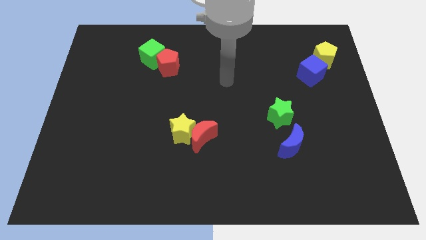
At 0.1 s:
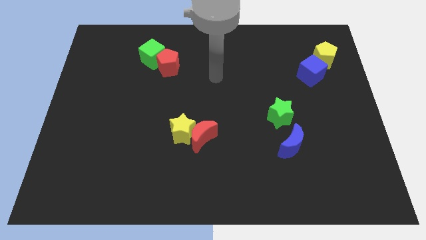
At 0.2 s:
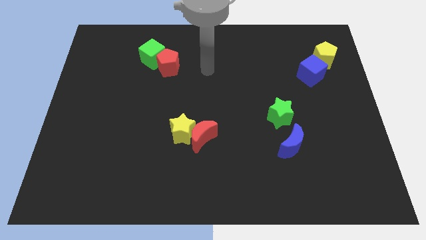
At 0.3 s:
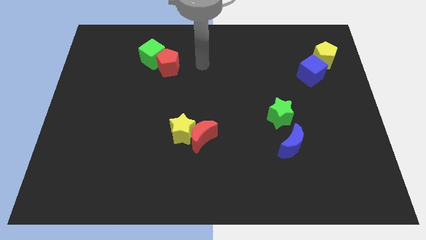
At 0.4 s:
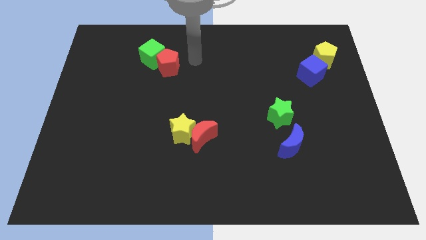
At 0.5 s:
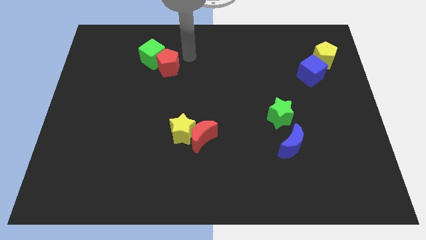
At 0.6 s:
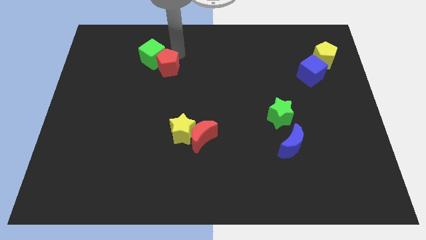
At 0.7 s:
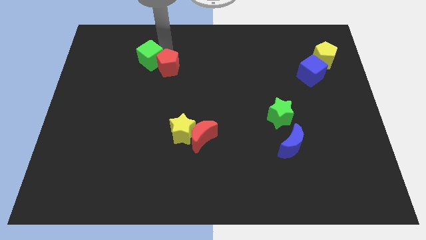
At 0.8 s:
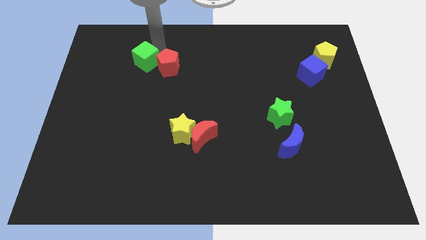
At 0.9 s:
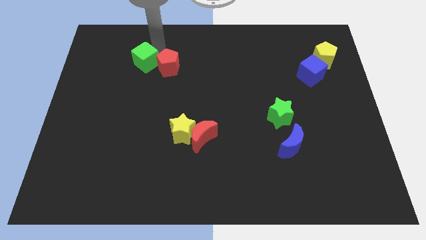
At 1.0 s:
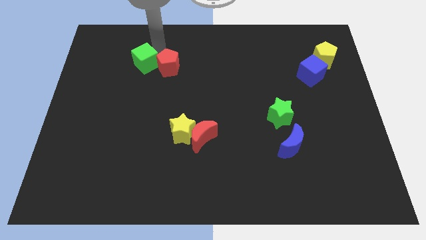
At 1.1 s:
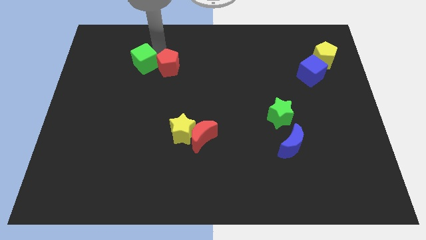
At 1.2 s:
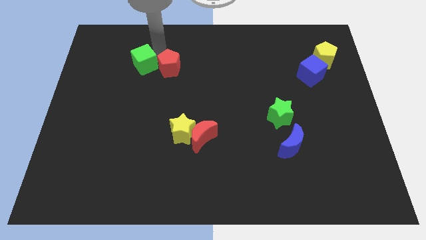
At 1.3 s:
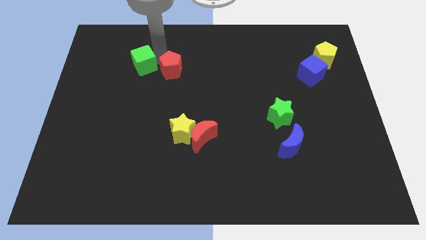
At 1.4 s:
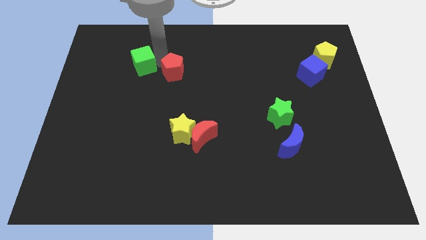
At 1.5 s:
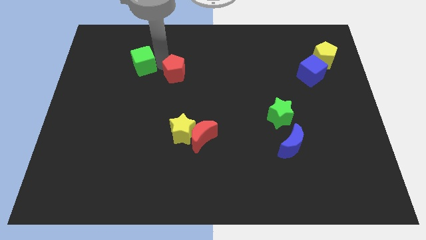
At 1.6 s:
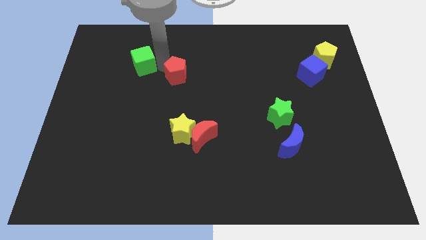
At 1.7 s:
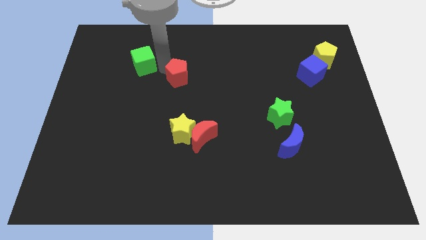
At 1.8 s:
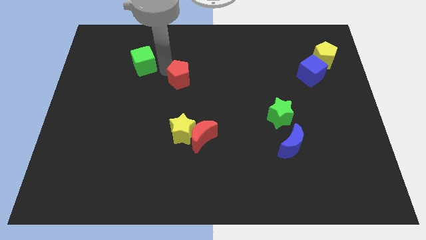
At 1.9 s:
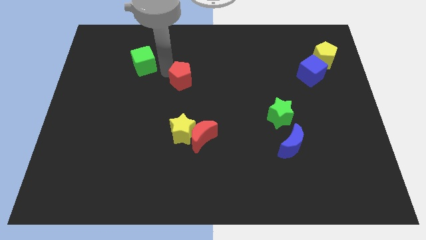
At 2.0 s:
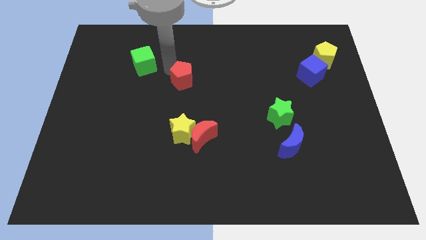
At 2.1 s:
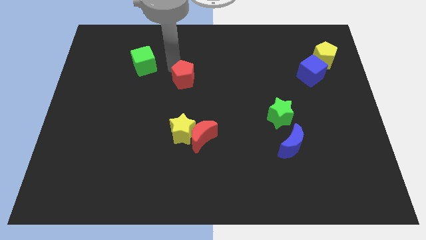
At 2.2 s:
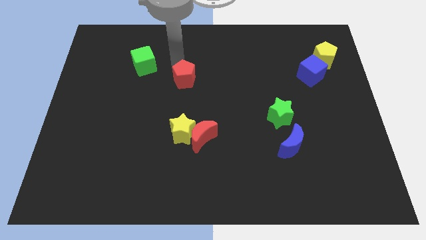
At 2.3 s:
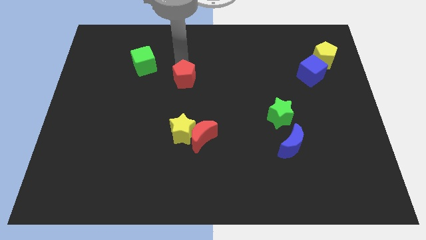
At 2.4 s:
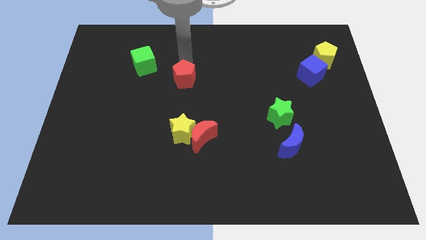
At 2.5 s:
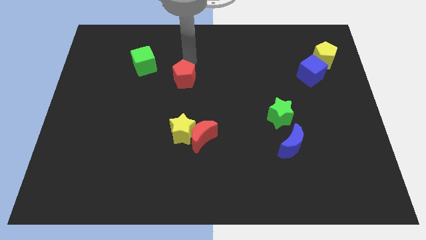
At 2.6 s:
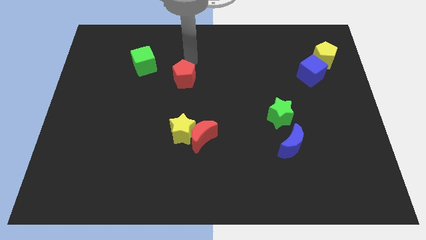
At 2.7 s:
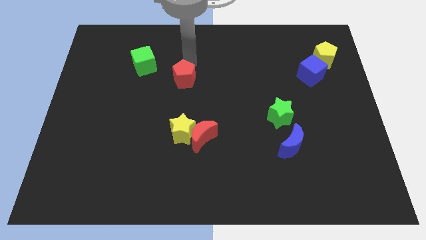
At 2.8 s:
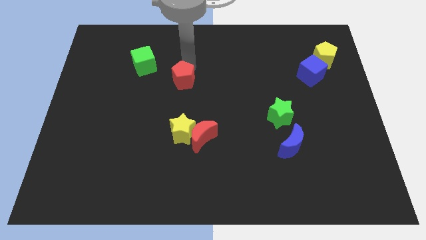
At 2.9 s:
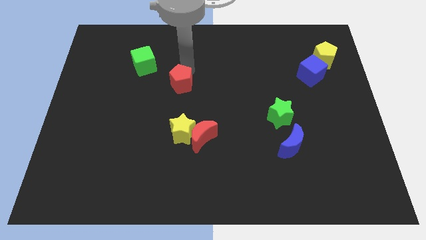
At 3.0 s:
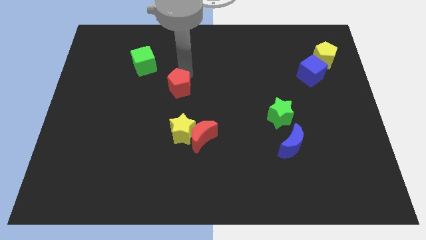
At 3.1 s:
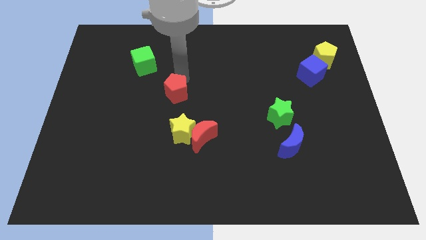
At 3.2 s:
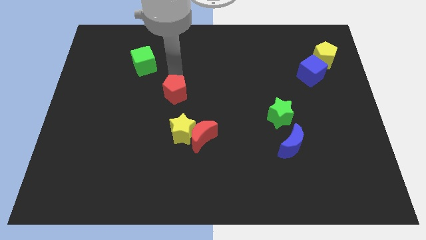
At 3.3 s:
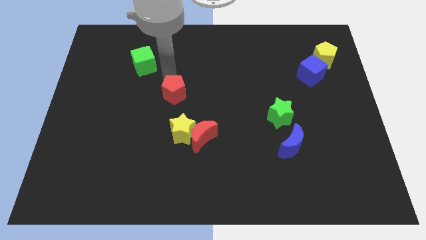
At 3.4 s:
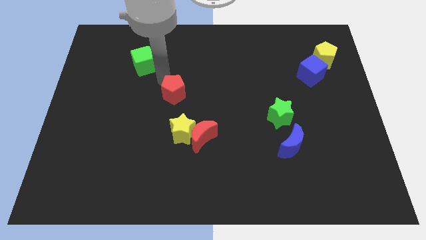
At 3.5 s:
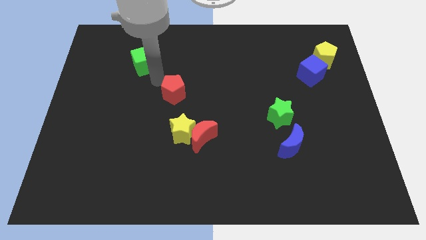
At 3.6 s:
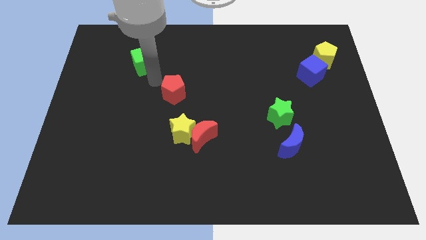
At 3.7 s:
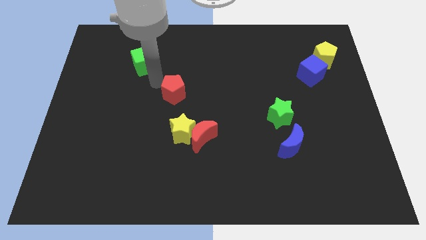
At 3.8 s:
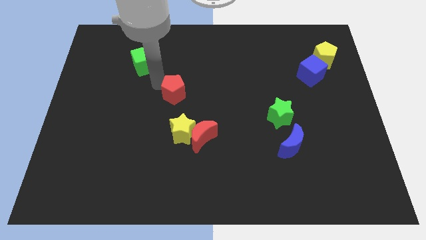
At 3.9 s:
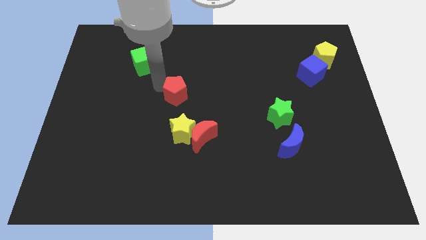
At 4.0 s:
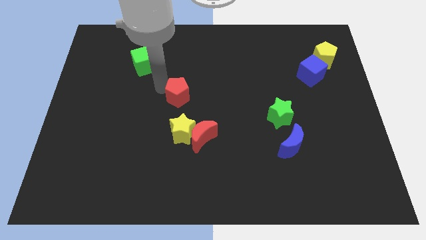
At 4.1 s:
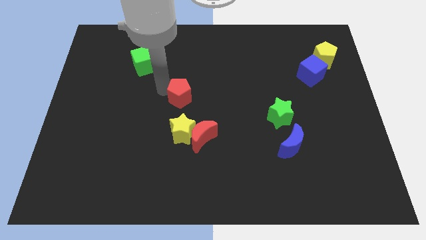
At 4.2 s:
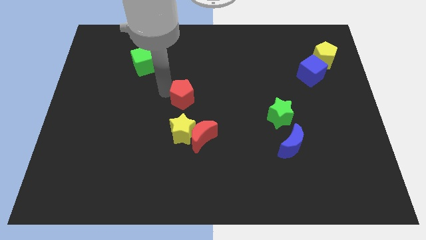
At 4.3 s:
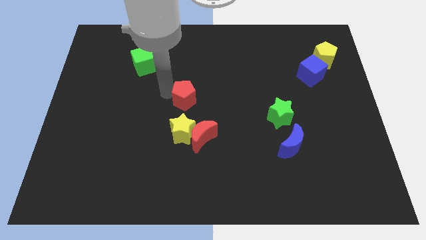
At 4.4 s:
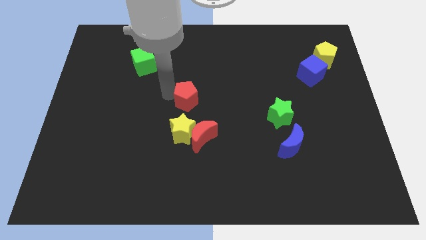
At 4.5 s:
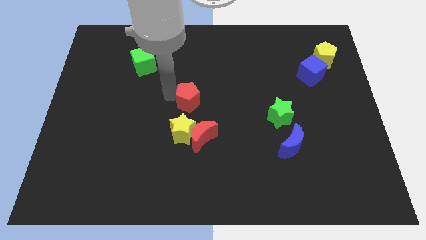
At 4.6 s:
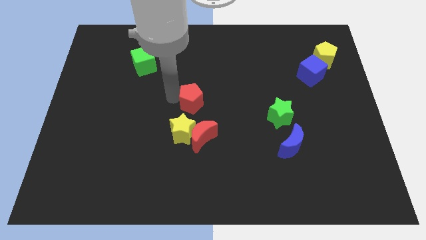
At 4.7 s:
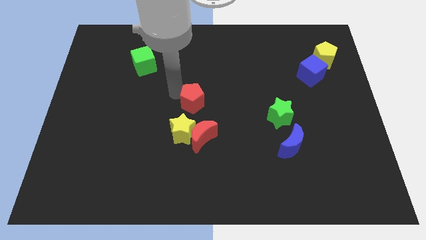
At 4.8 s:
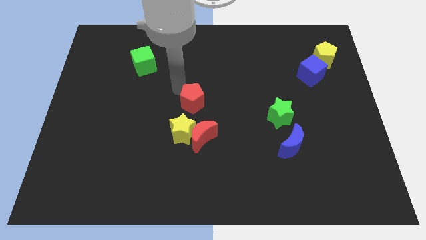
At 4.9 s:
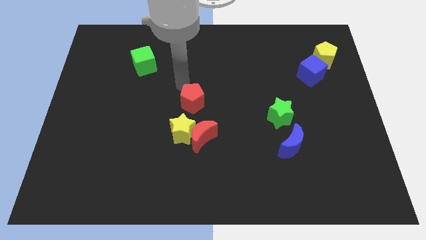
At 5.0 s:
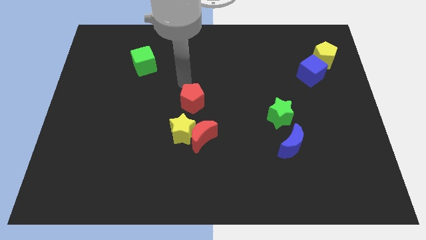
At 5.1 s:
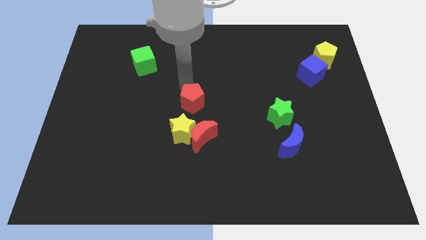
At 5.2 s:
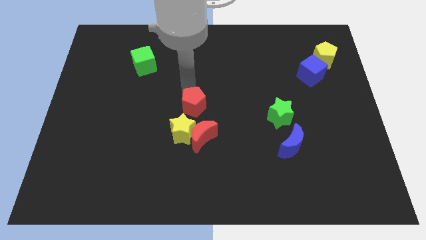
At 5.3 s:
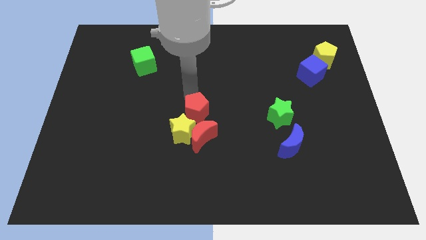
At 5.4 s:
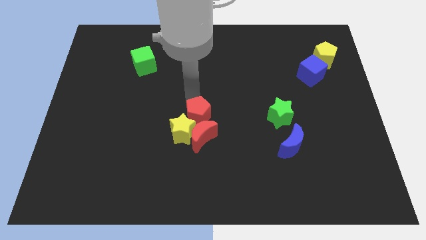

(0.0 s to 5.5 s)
push the red pentagon close to the red moon

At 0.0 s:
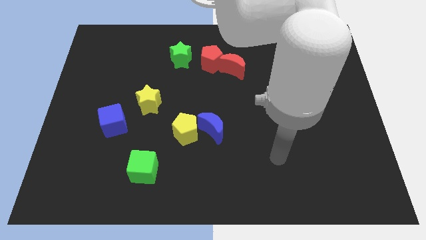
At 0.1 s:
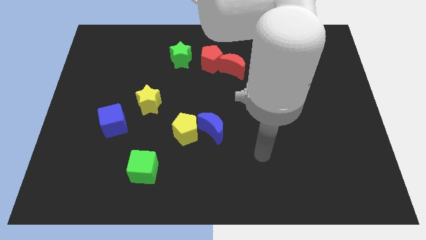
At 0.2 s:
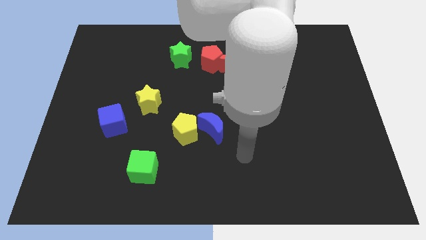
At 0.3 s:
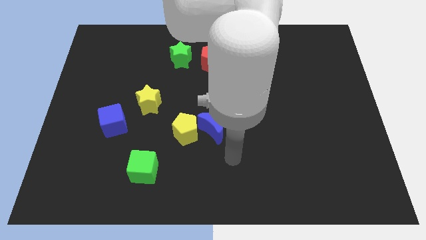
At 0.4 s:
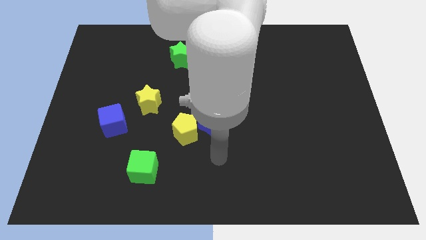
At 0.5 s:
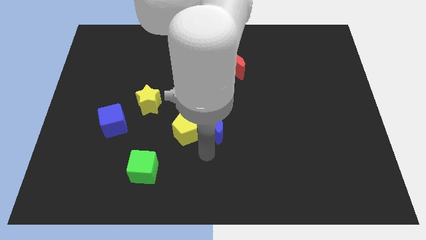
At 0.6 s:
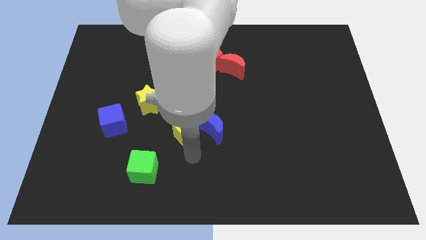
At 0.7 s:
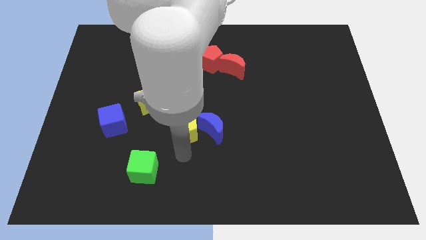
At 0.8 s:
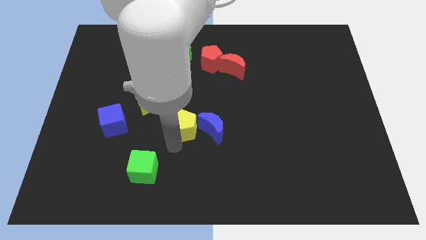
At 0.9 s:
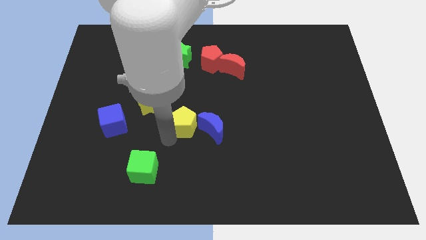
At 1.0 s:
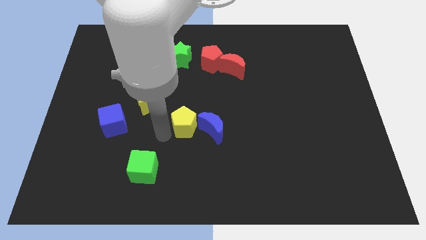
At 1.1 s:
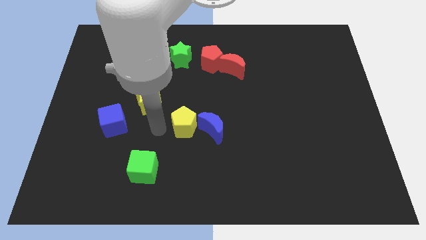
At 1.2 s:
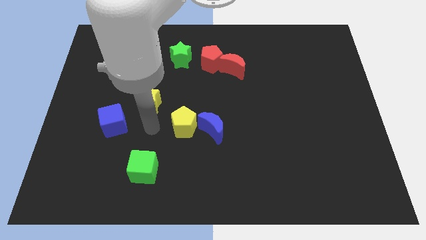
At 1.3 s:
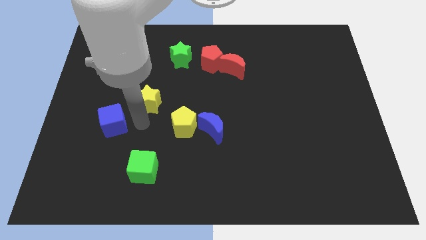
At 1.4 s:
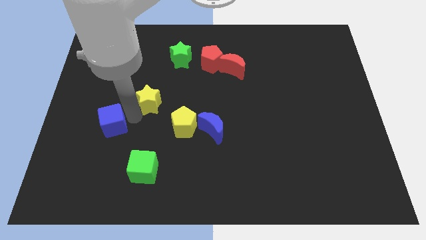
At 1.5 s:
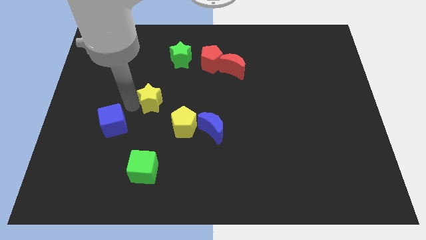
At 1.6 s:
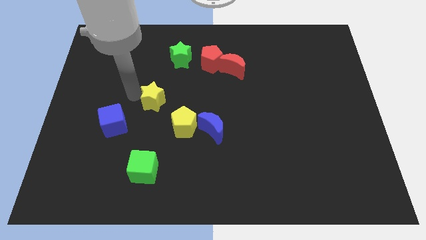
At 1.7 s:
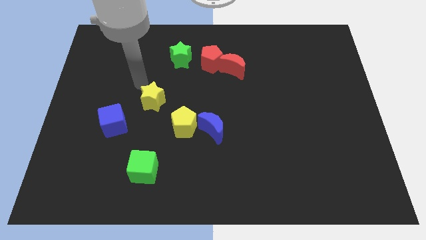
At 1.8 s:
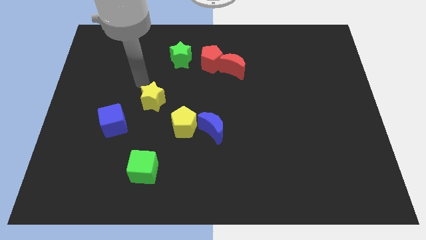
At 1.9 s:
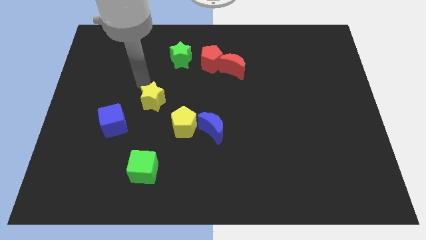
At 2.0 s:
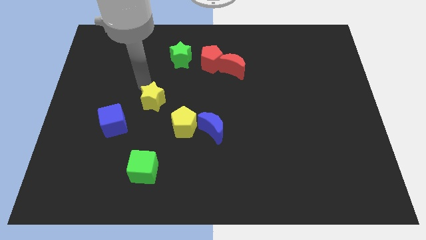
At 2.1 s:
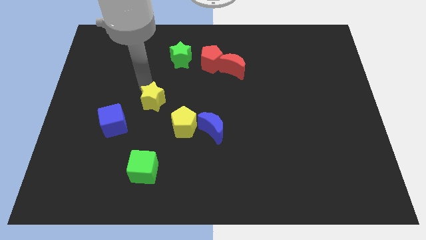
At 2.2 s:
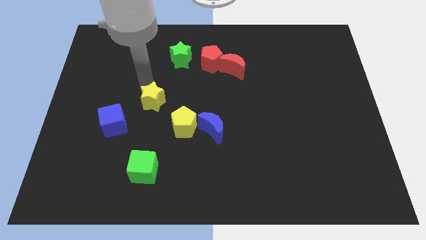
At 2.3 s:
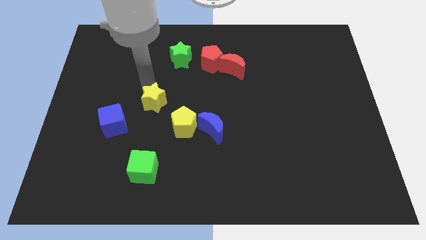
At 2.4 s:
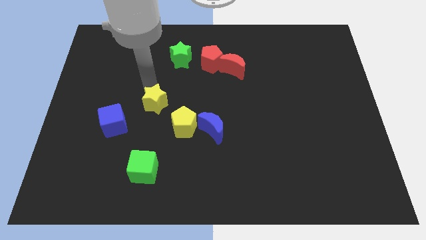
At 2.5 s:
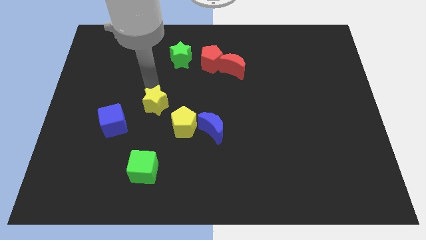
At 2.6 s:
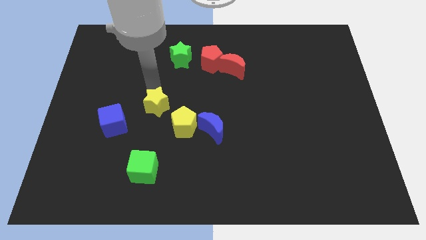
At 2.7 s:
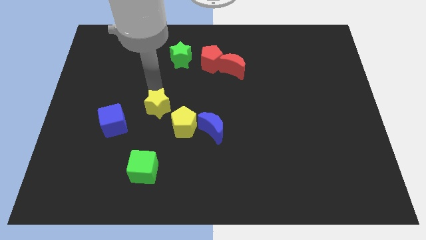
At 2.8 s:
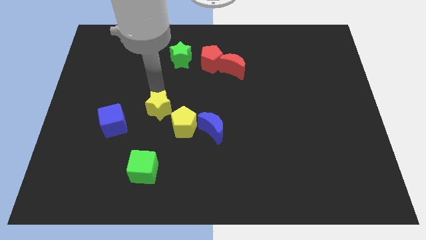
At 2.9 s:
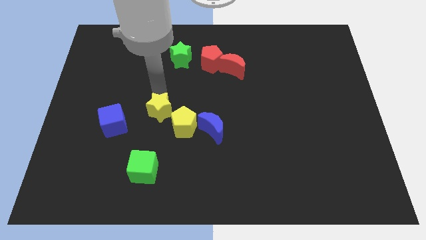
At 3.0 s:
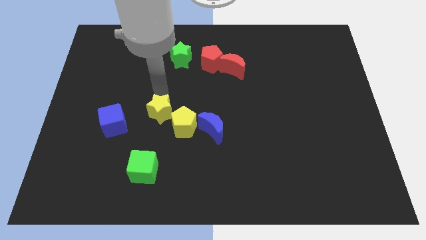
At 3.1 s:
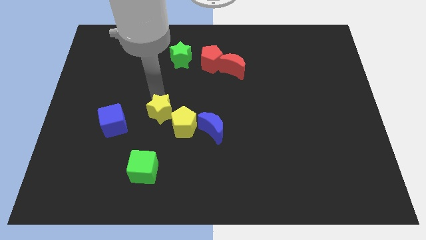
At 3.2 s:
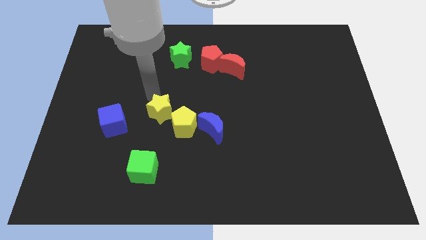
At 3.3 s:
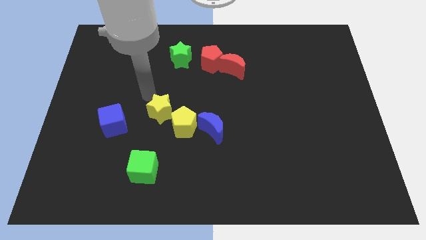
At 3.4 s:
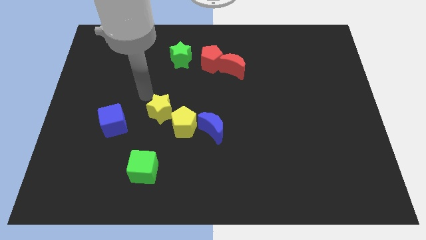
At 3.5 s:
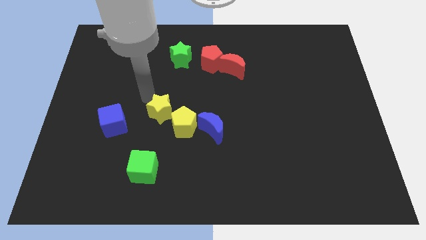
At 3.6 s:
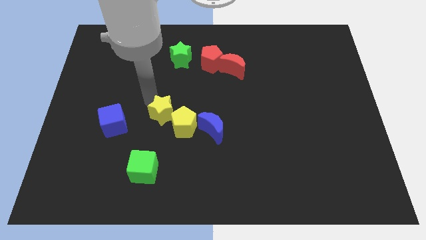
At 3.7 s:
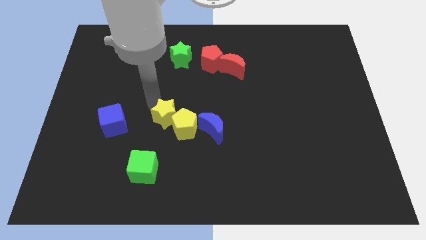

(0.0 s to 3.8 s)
move the yellow star to the yellow pentagon
